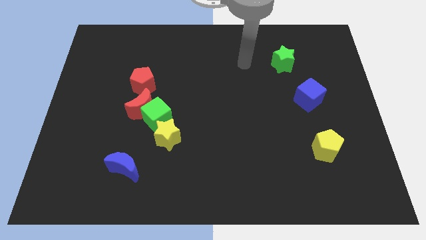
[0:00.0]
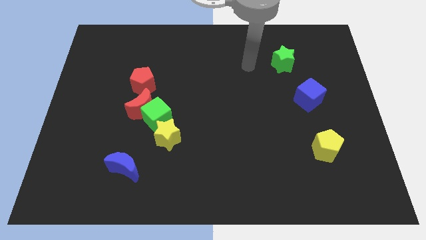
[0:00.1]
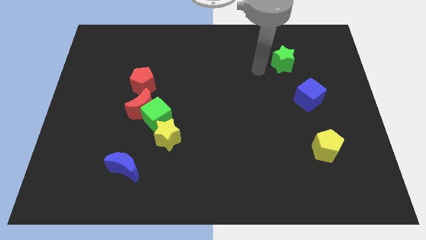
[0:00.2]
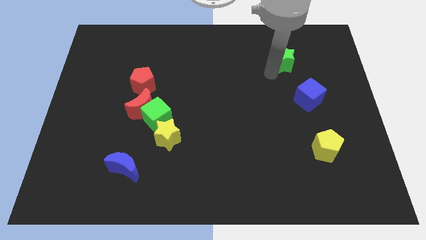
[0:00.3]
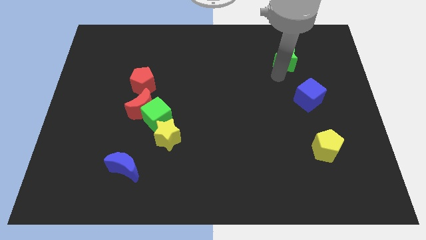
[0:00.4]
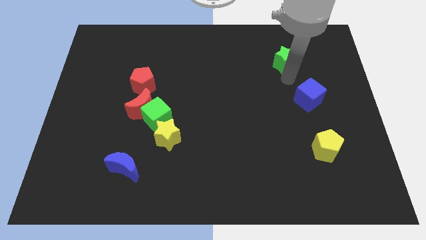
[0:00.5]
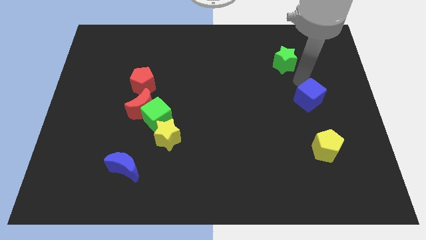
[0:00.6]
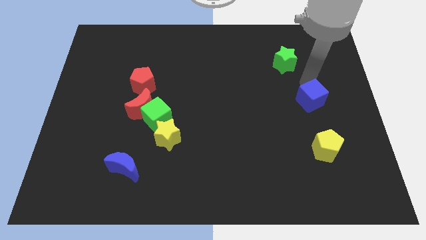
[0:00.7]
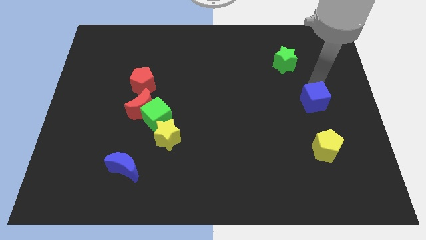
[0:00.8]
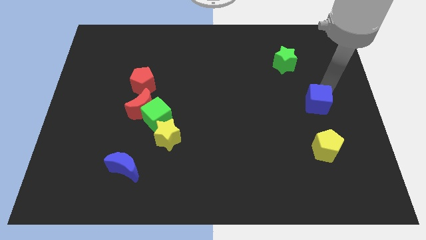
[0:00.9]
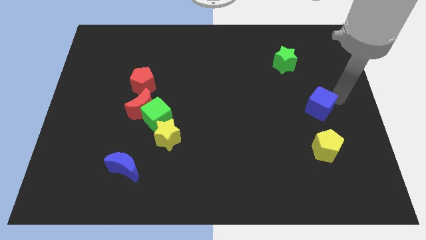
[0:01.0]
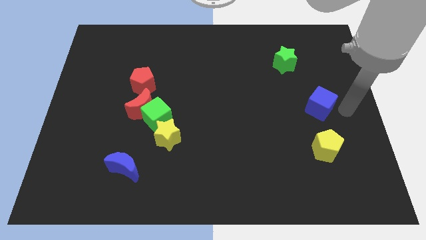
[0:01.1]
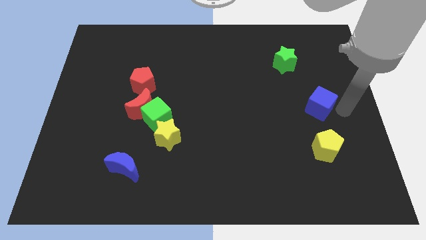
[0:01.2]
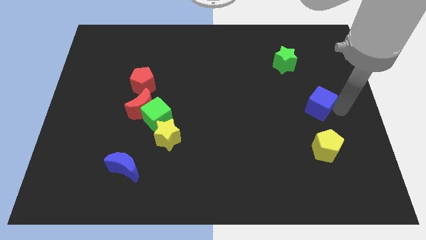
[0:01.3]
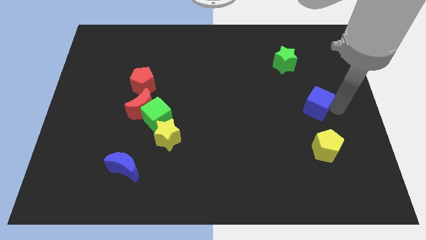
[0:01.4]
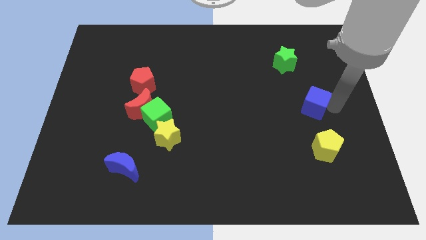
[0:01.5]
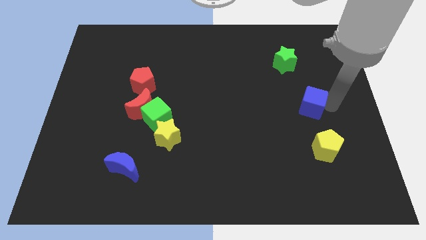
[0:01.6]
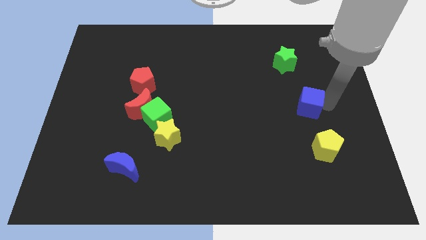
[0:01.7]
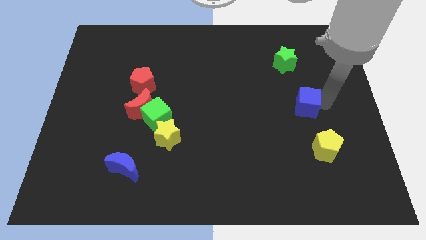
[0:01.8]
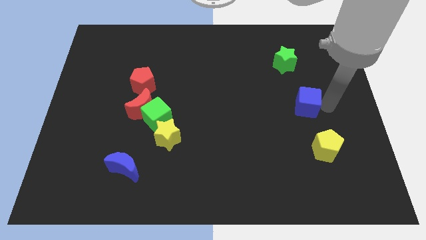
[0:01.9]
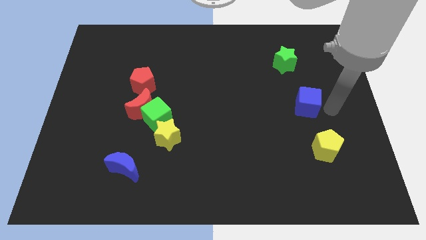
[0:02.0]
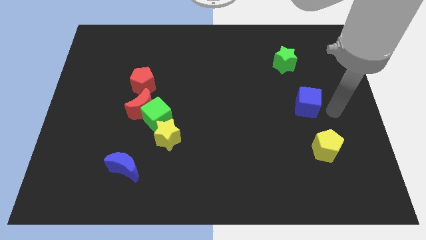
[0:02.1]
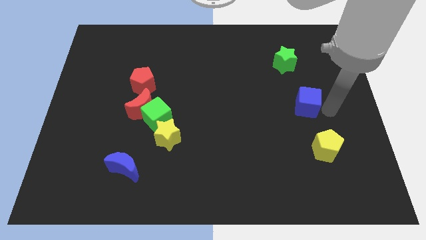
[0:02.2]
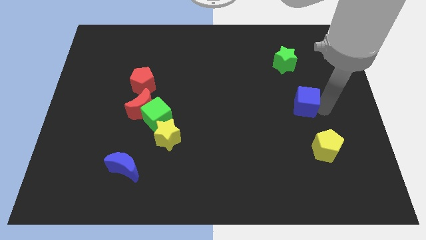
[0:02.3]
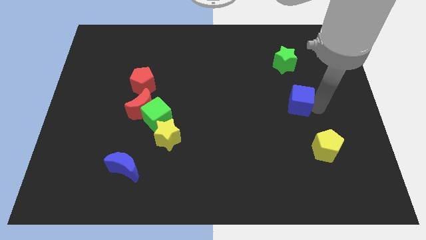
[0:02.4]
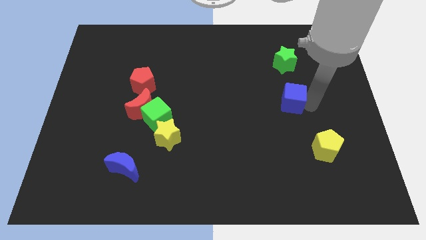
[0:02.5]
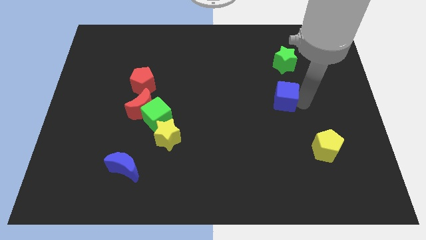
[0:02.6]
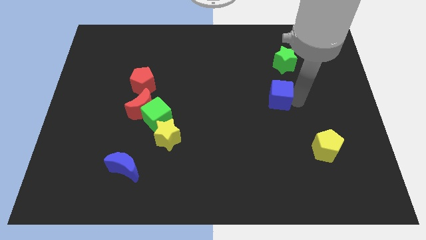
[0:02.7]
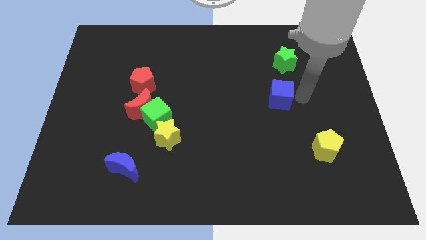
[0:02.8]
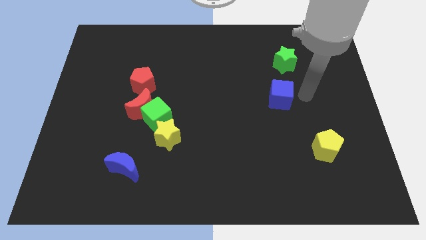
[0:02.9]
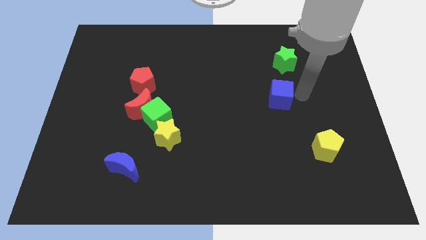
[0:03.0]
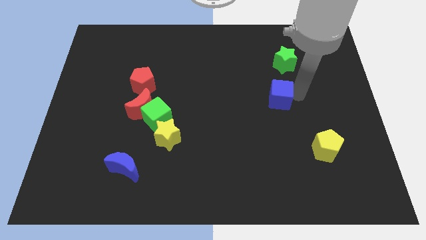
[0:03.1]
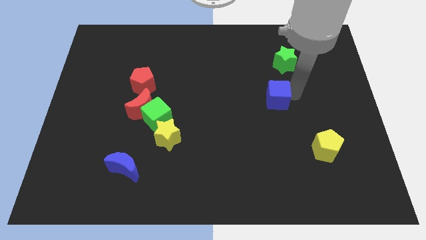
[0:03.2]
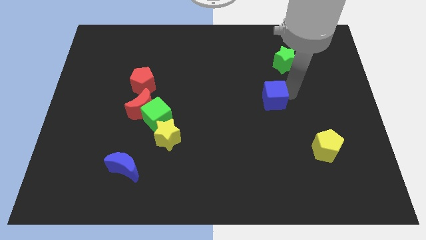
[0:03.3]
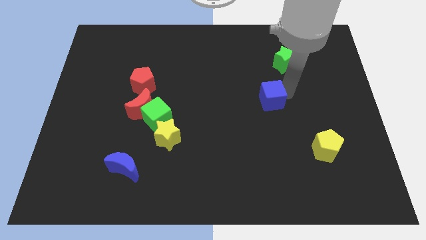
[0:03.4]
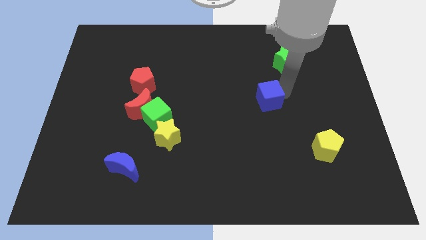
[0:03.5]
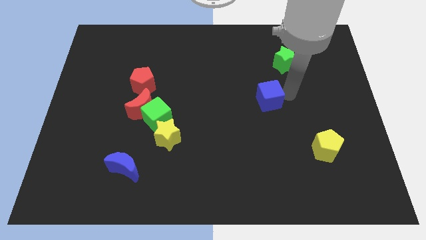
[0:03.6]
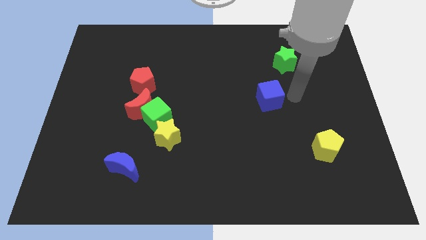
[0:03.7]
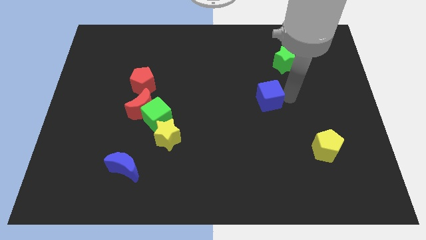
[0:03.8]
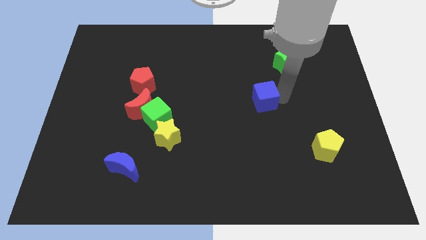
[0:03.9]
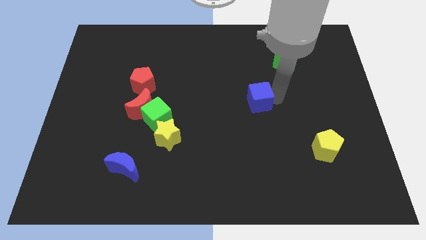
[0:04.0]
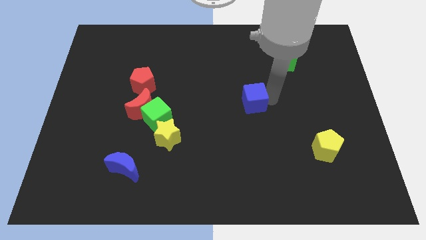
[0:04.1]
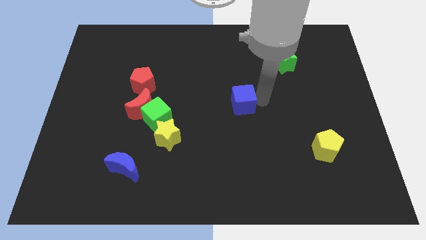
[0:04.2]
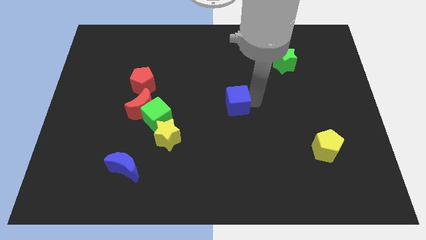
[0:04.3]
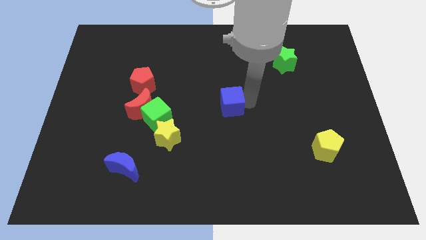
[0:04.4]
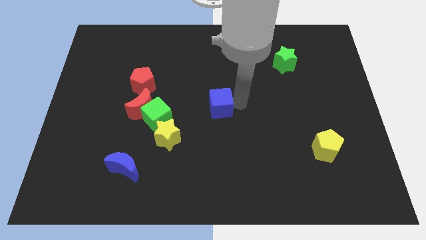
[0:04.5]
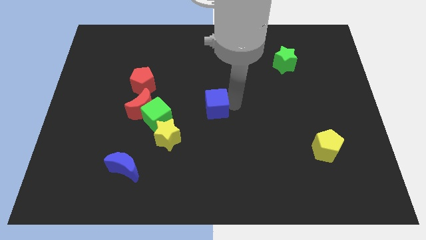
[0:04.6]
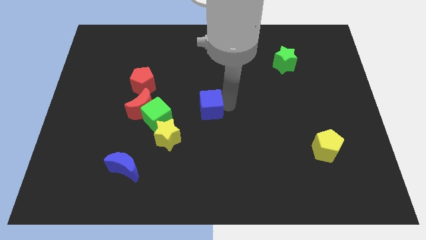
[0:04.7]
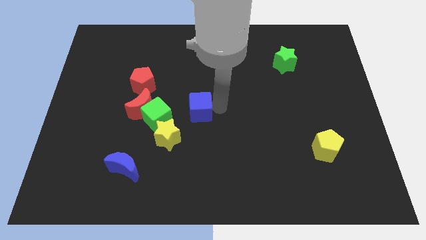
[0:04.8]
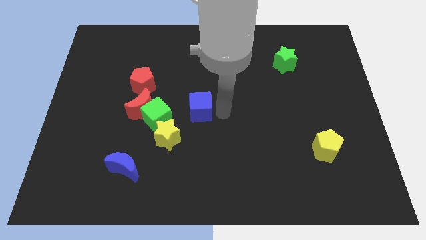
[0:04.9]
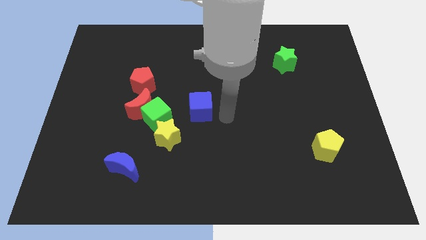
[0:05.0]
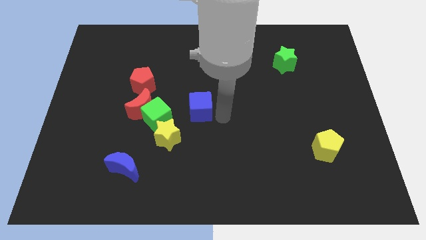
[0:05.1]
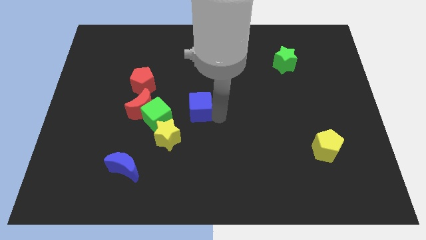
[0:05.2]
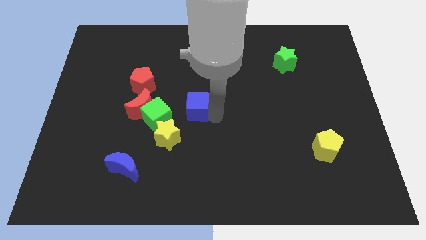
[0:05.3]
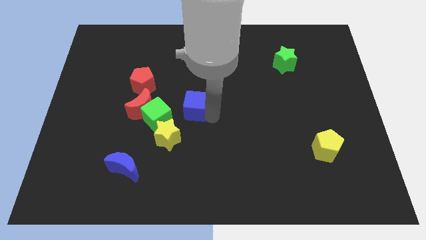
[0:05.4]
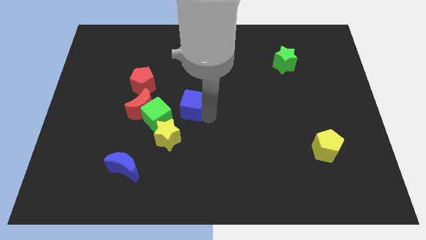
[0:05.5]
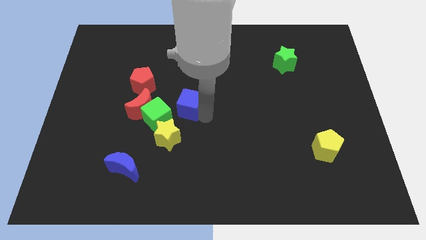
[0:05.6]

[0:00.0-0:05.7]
push the blue cube to the top of the yellow star

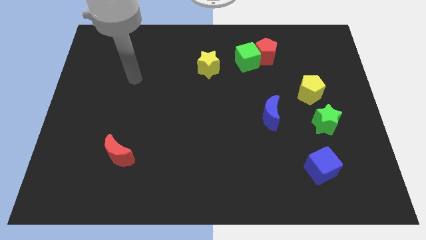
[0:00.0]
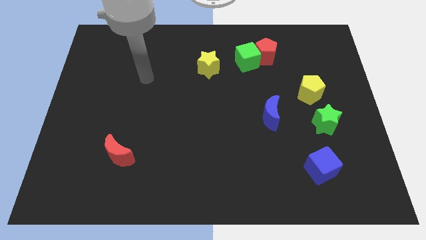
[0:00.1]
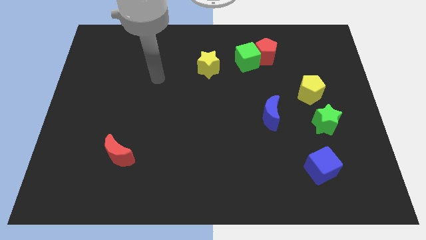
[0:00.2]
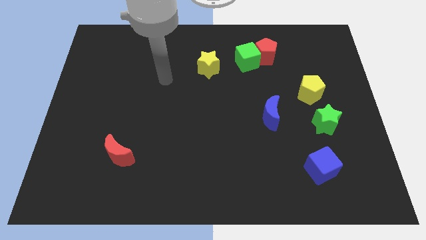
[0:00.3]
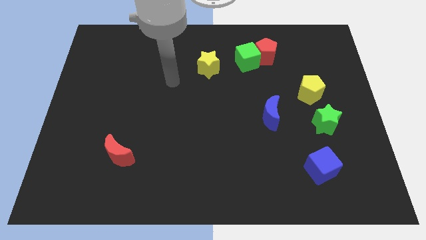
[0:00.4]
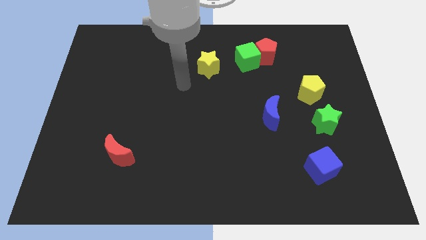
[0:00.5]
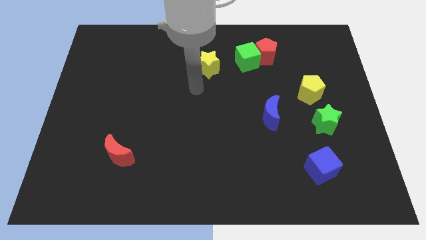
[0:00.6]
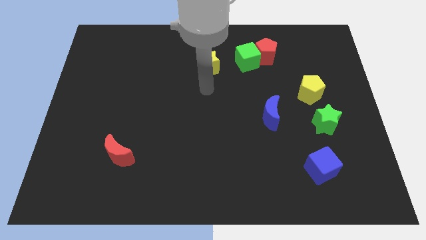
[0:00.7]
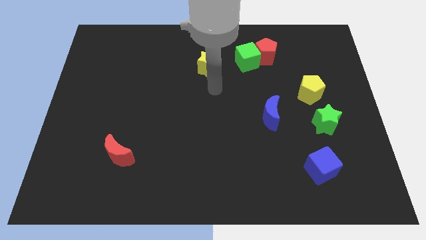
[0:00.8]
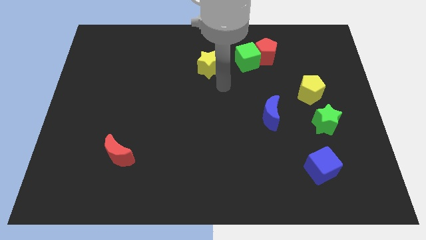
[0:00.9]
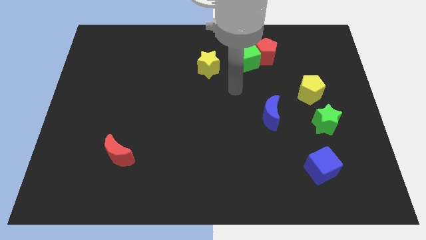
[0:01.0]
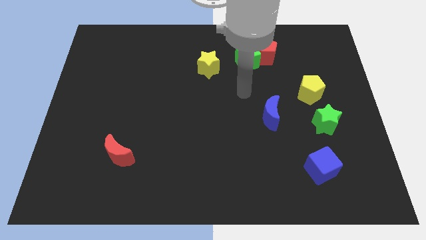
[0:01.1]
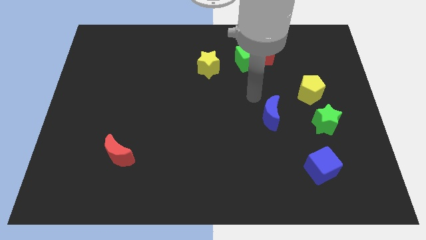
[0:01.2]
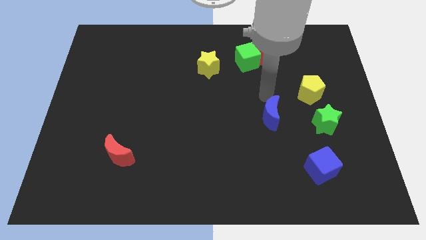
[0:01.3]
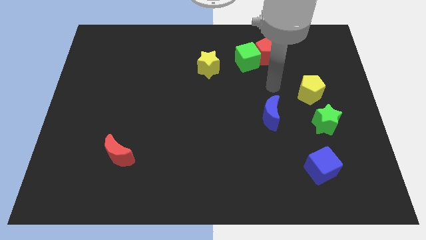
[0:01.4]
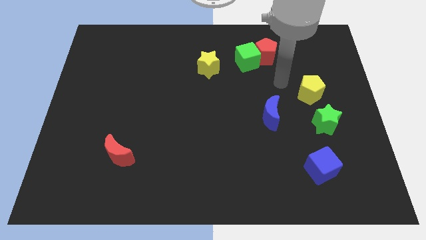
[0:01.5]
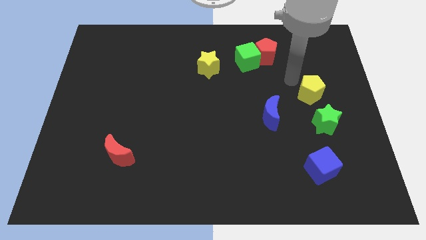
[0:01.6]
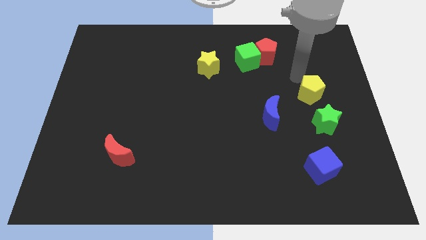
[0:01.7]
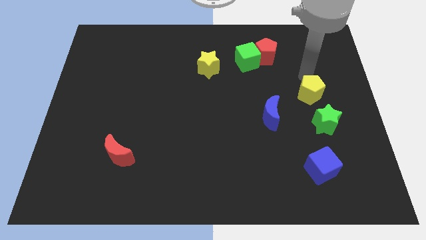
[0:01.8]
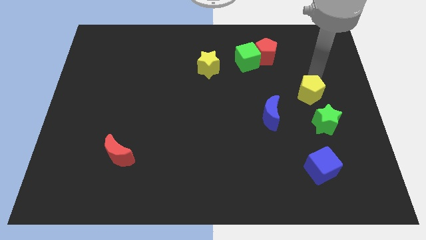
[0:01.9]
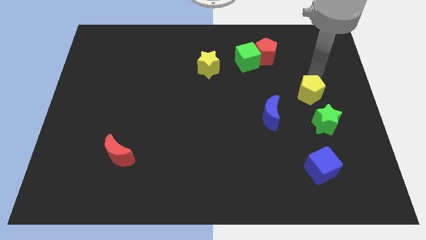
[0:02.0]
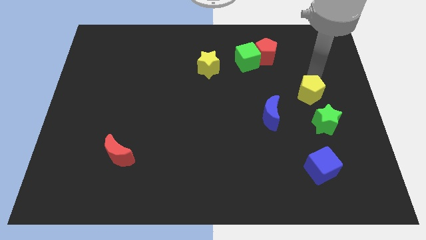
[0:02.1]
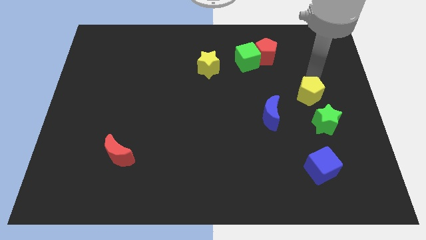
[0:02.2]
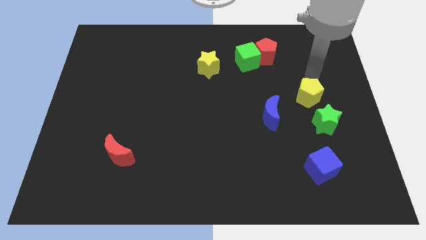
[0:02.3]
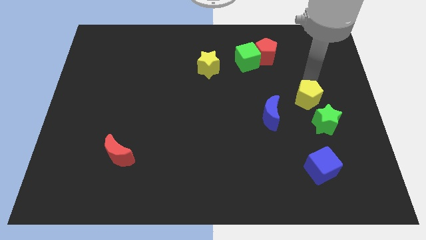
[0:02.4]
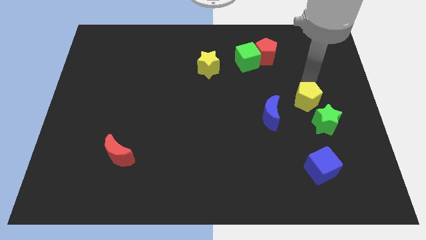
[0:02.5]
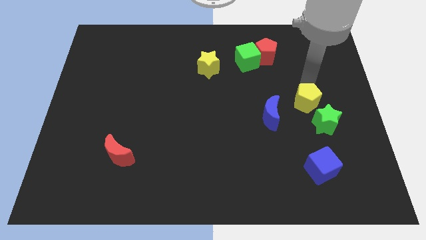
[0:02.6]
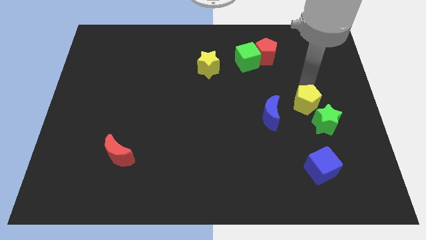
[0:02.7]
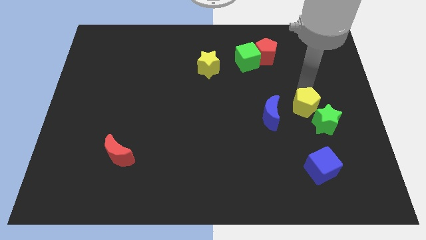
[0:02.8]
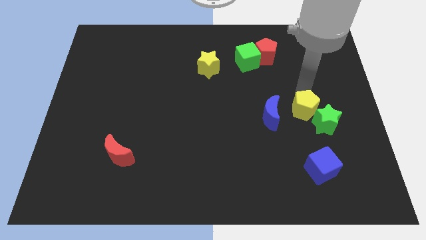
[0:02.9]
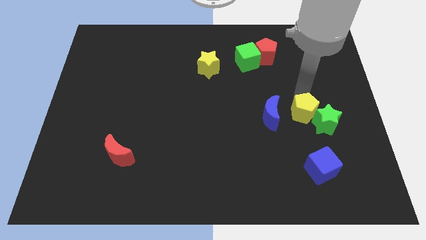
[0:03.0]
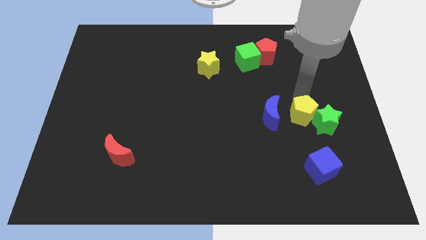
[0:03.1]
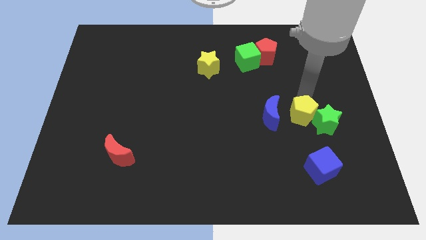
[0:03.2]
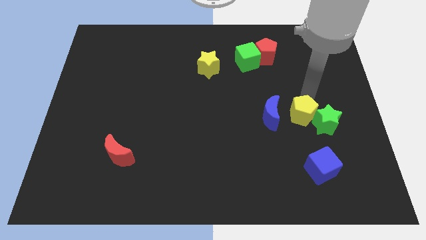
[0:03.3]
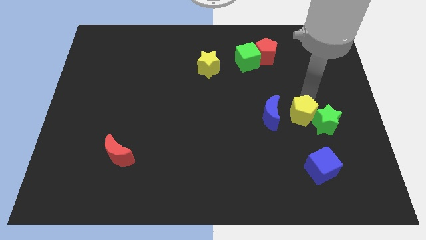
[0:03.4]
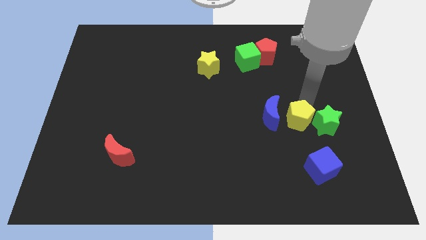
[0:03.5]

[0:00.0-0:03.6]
move the yellow pentagon to the bottom right of the blue moon
